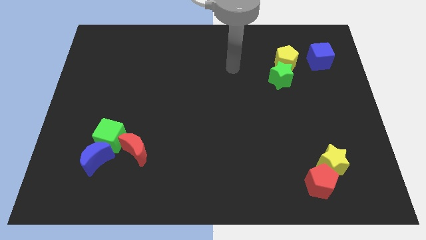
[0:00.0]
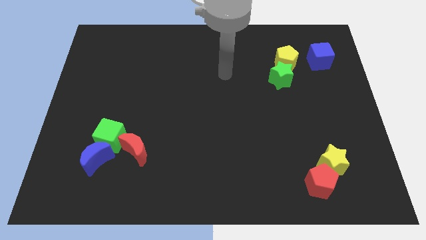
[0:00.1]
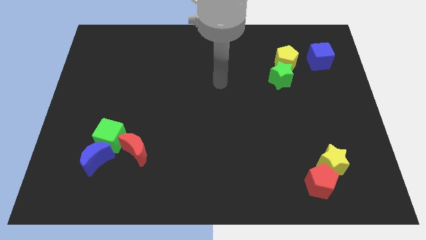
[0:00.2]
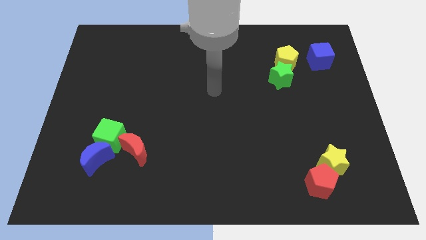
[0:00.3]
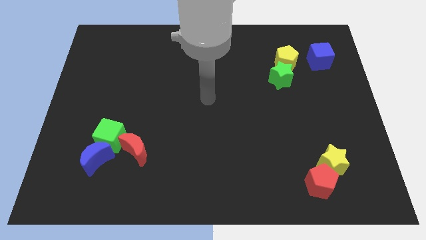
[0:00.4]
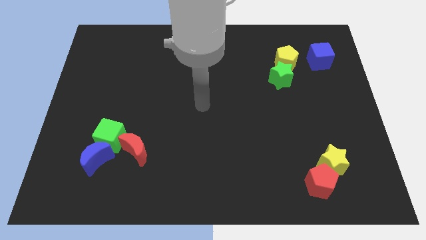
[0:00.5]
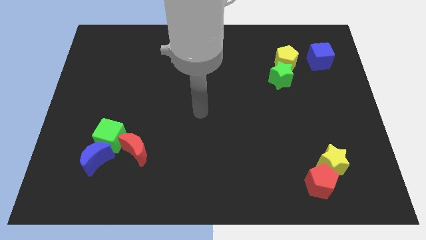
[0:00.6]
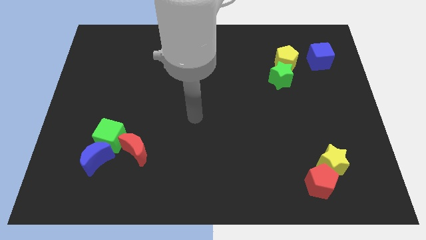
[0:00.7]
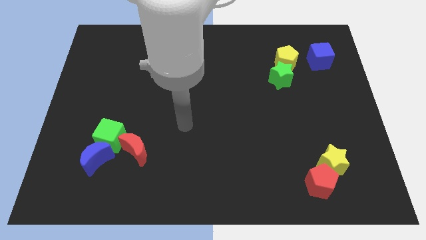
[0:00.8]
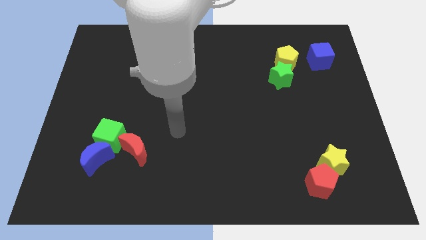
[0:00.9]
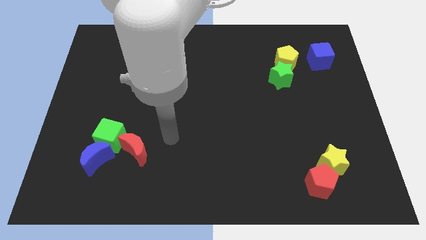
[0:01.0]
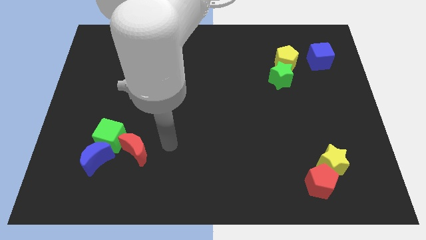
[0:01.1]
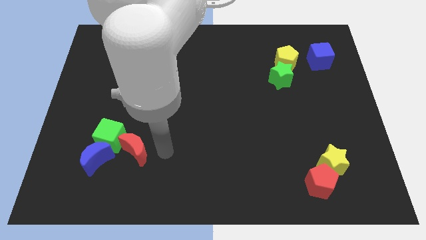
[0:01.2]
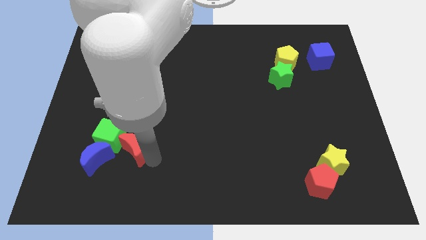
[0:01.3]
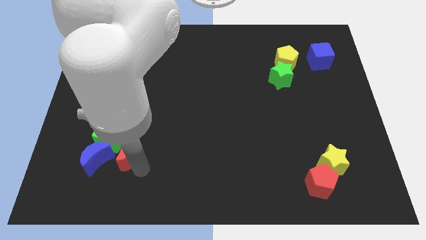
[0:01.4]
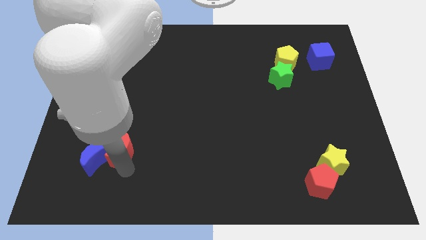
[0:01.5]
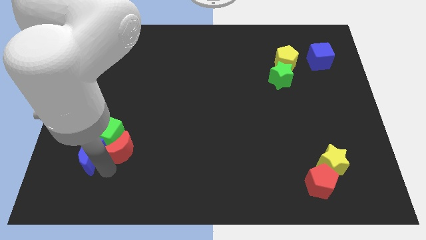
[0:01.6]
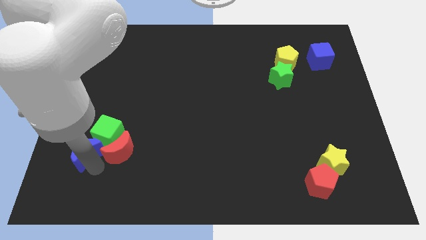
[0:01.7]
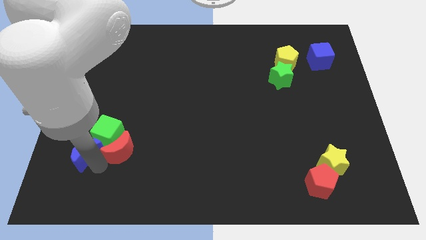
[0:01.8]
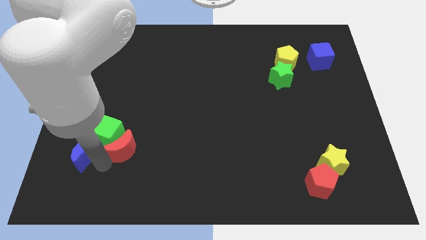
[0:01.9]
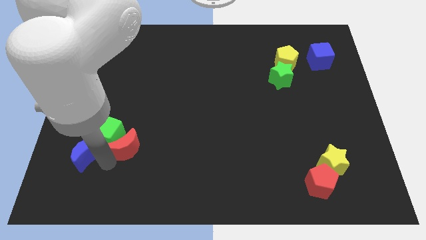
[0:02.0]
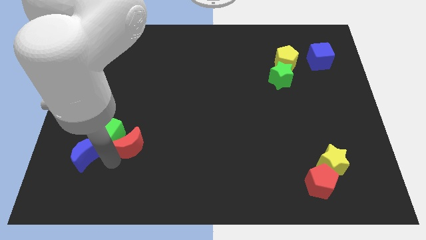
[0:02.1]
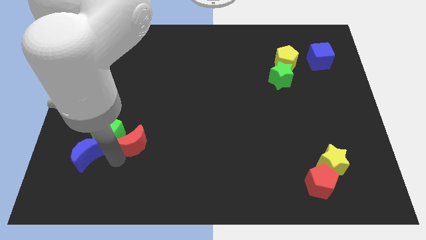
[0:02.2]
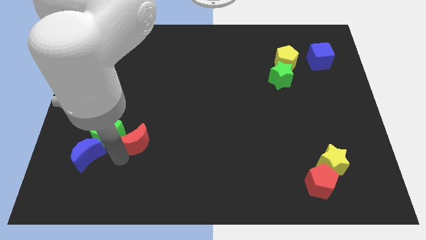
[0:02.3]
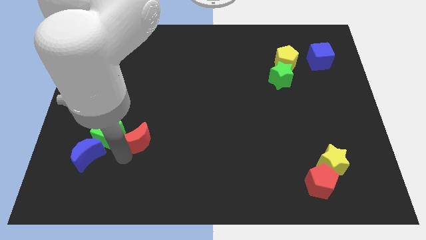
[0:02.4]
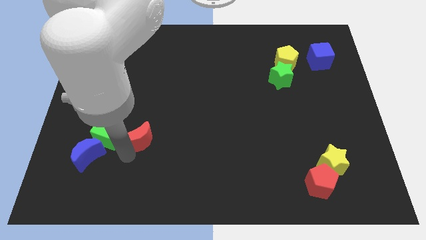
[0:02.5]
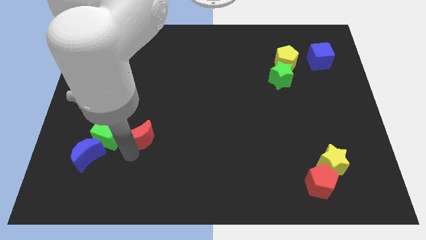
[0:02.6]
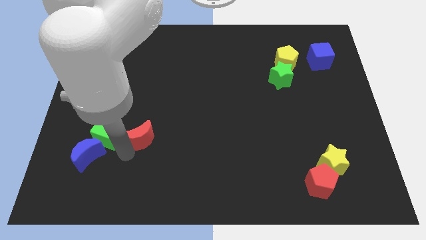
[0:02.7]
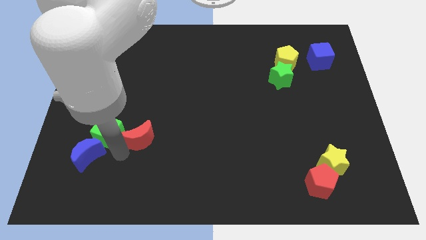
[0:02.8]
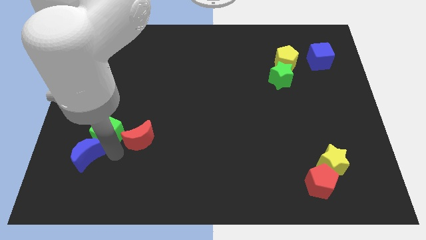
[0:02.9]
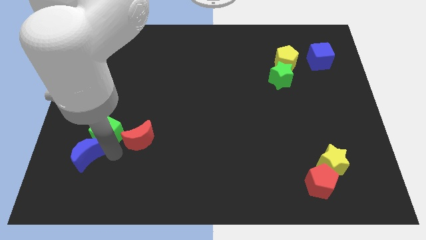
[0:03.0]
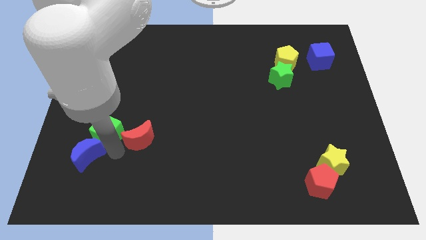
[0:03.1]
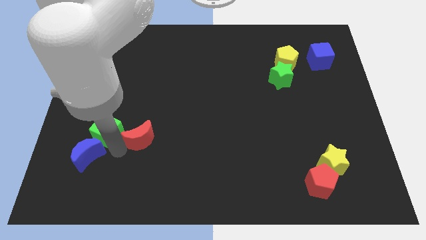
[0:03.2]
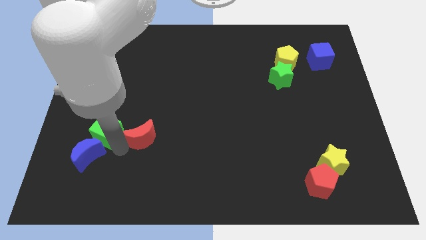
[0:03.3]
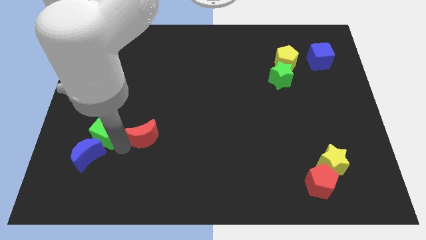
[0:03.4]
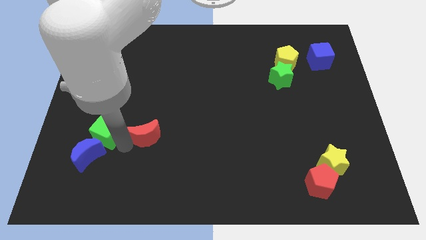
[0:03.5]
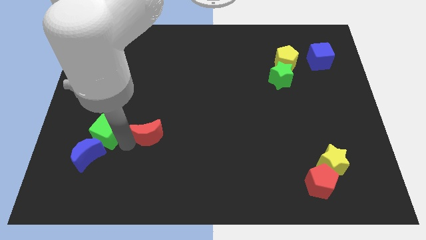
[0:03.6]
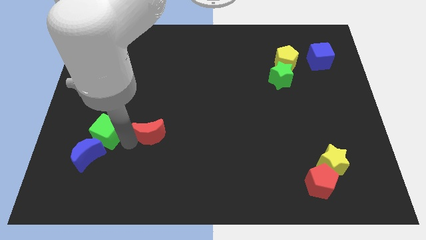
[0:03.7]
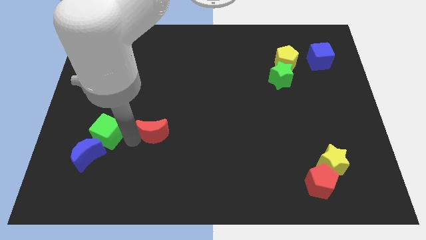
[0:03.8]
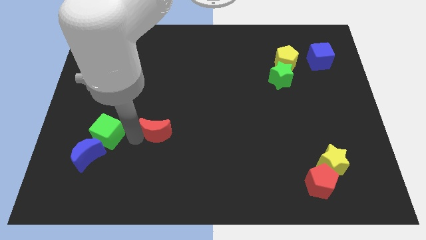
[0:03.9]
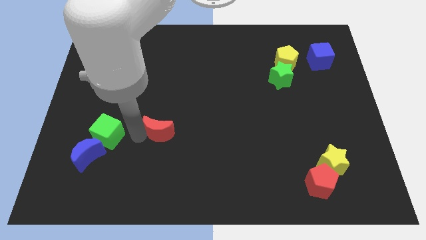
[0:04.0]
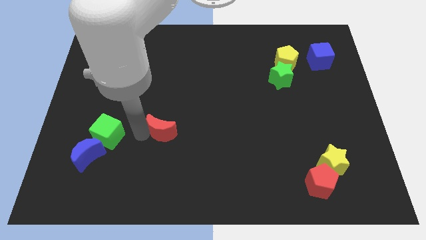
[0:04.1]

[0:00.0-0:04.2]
push the red moon a bit diagonally up and right

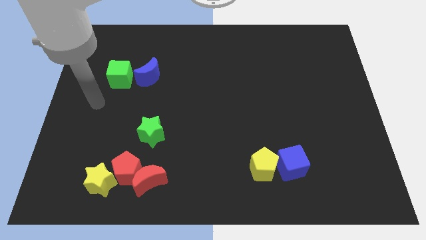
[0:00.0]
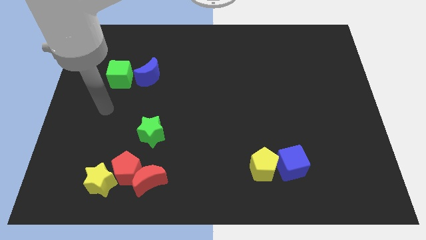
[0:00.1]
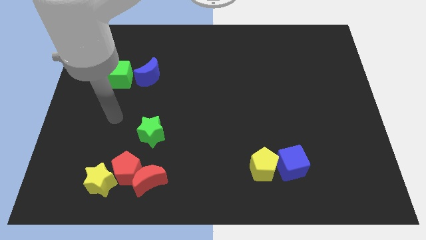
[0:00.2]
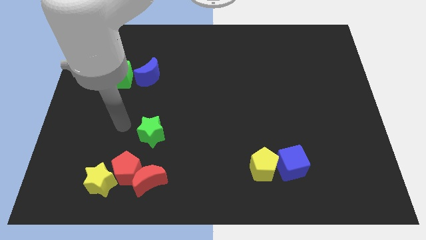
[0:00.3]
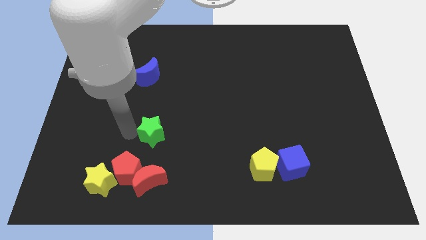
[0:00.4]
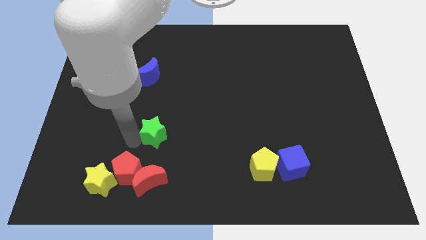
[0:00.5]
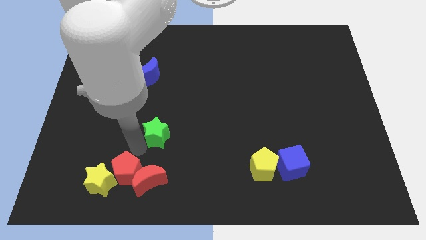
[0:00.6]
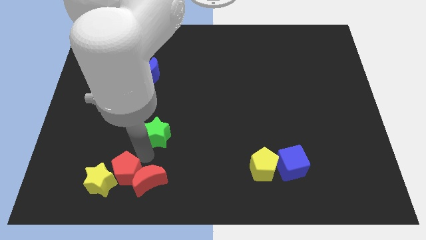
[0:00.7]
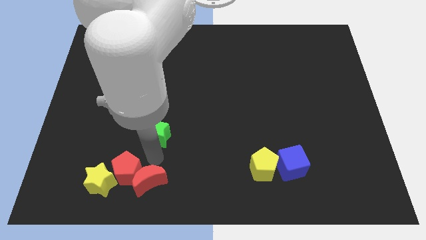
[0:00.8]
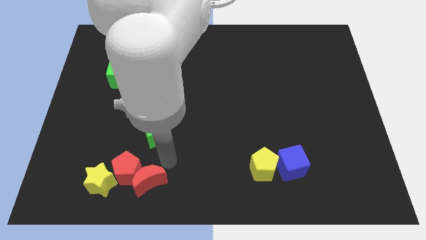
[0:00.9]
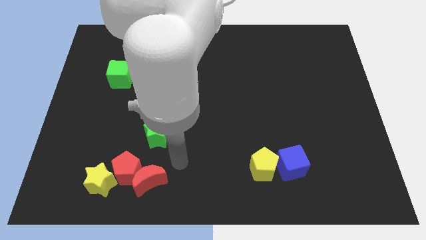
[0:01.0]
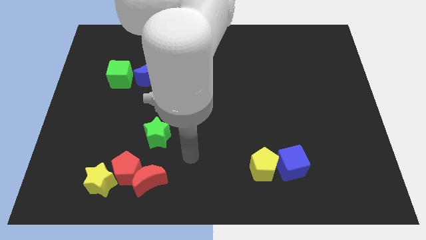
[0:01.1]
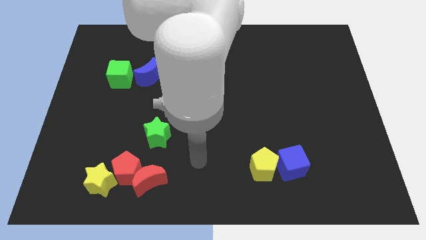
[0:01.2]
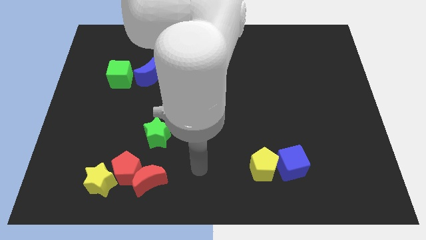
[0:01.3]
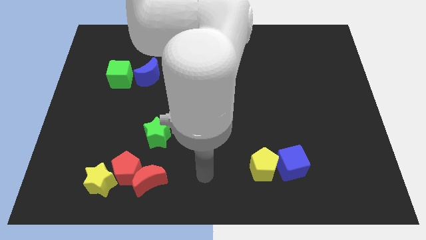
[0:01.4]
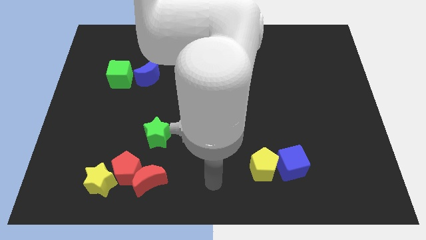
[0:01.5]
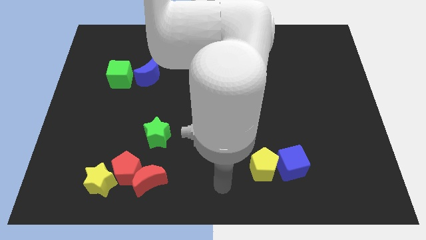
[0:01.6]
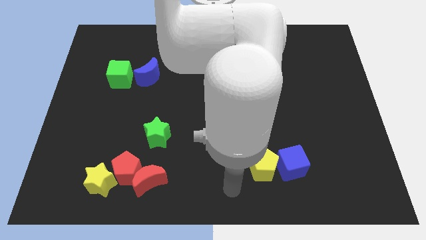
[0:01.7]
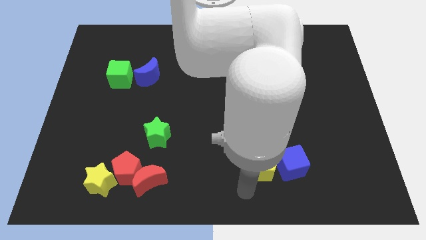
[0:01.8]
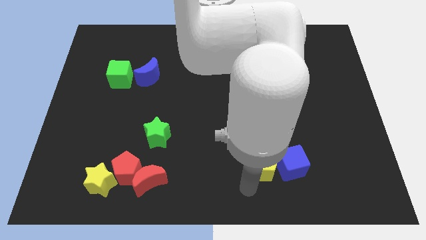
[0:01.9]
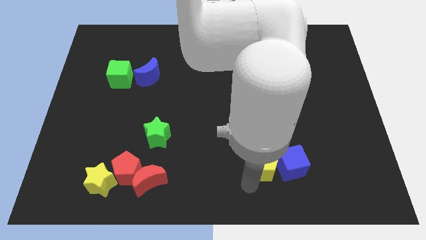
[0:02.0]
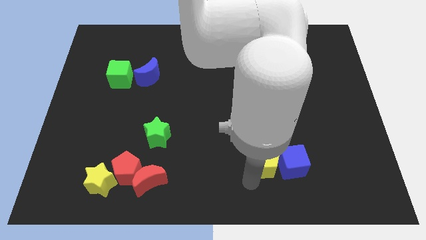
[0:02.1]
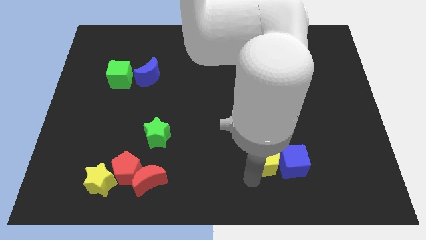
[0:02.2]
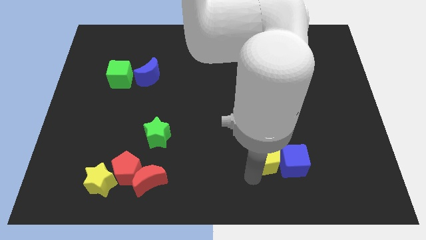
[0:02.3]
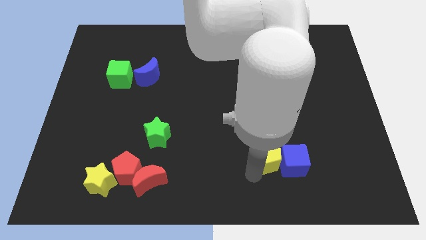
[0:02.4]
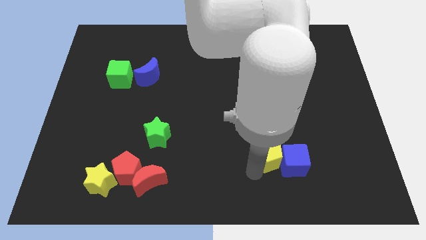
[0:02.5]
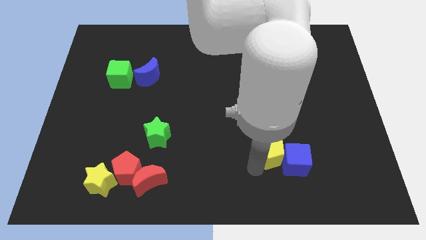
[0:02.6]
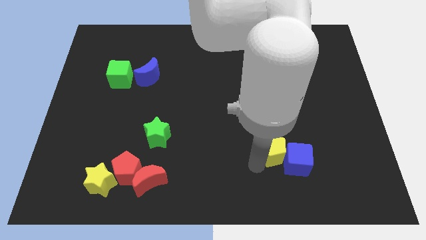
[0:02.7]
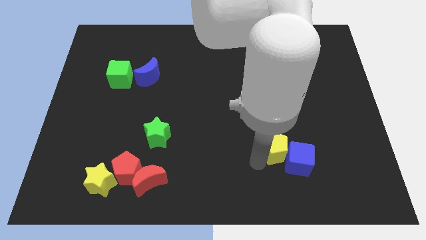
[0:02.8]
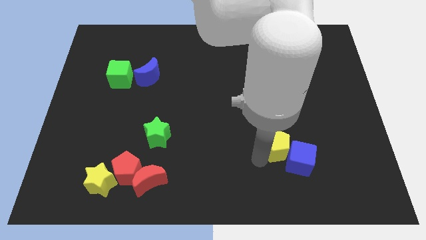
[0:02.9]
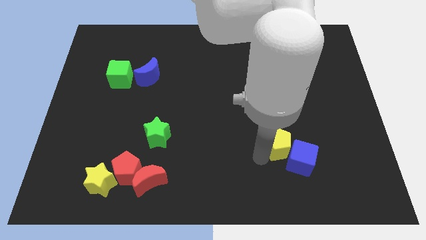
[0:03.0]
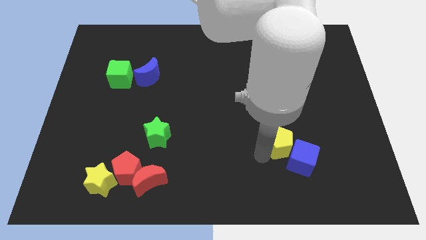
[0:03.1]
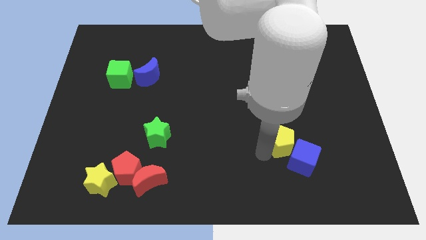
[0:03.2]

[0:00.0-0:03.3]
slide the yellow pentagon a bit upwards and right

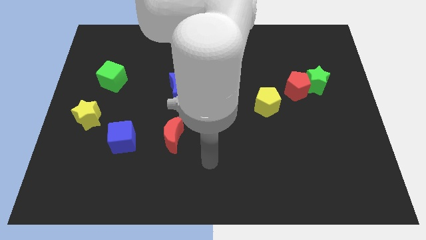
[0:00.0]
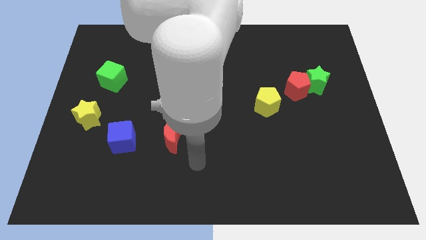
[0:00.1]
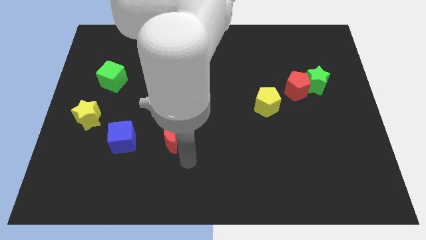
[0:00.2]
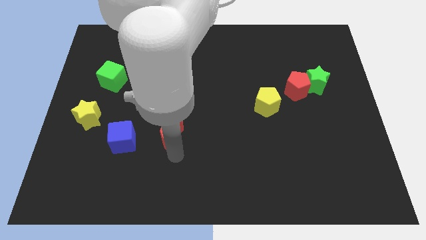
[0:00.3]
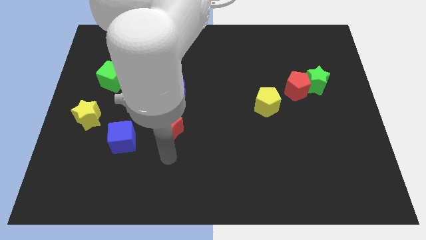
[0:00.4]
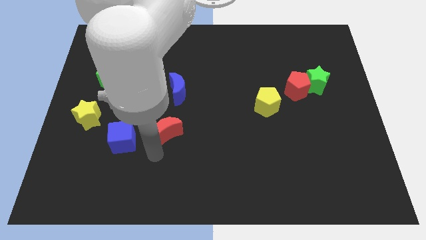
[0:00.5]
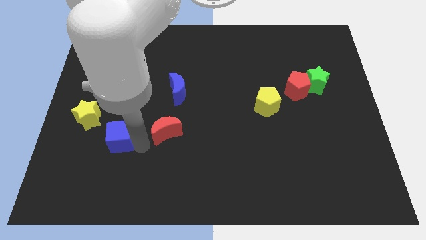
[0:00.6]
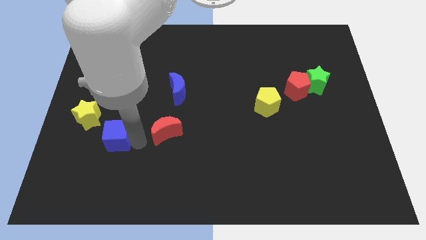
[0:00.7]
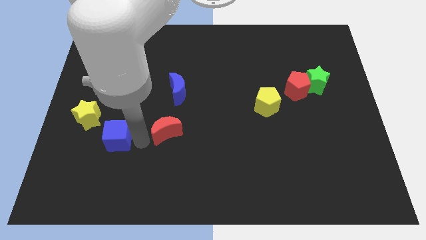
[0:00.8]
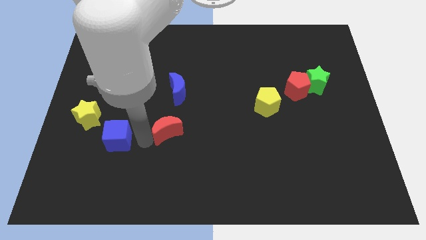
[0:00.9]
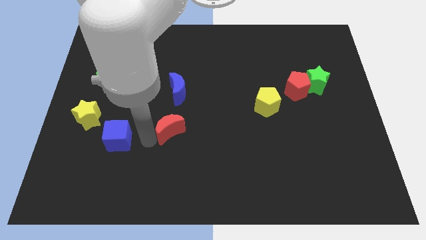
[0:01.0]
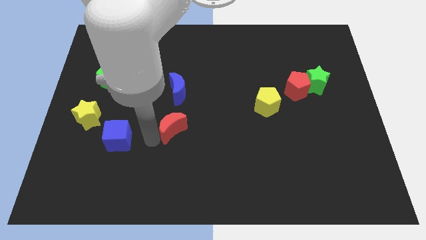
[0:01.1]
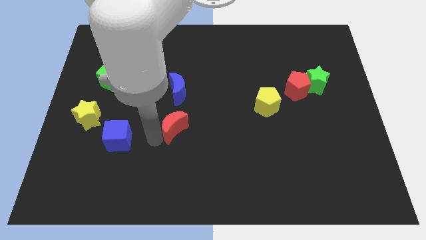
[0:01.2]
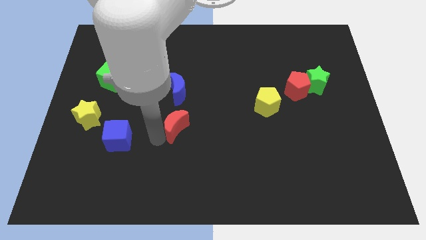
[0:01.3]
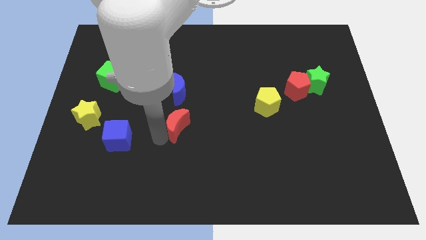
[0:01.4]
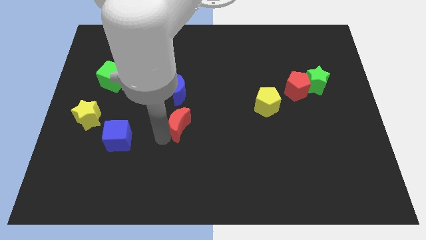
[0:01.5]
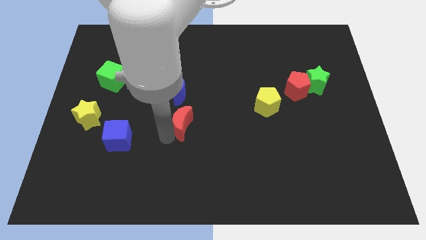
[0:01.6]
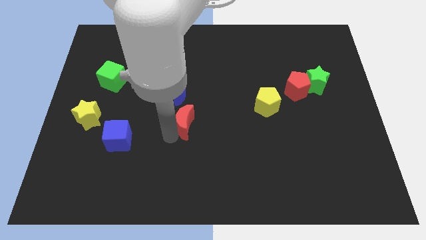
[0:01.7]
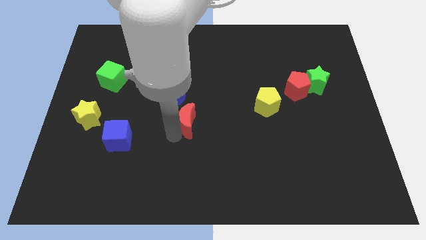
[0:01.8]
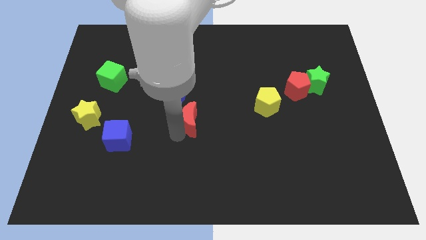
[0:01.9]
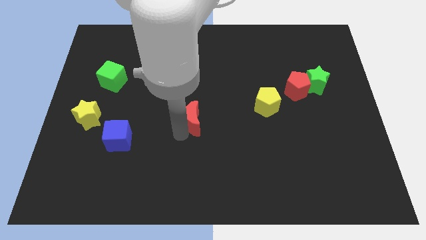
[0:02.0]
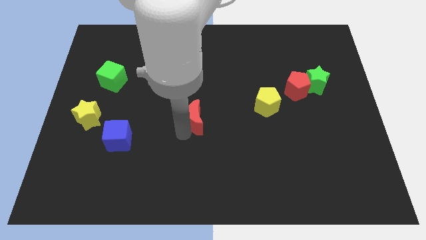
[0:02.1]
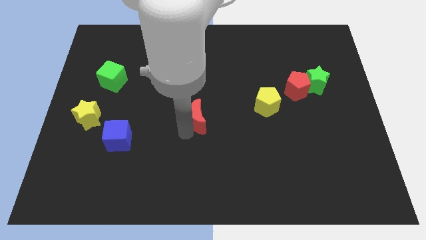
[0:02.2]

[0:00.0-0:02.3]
slightly slide the red moon upwards and right diagonally
